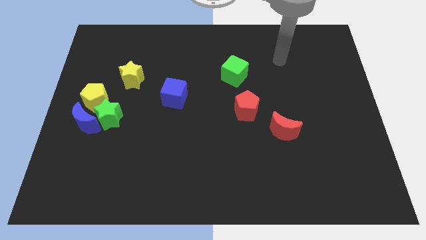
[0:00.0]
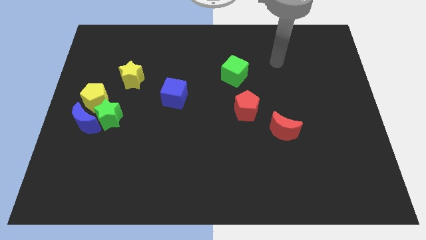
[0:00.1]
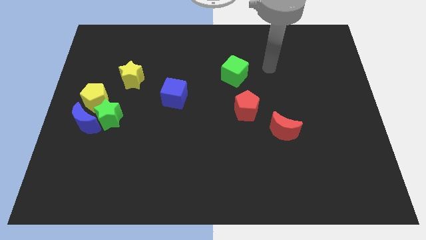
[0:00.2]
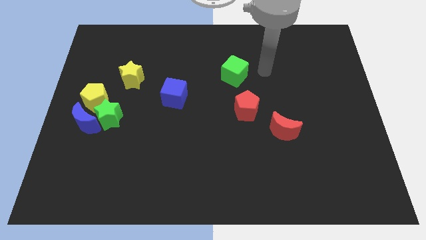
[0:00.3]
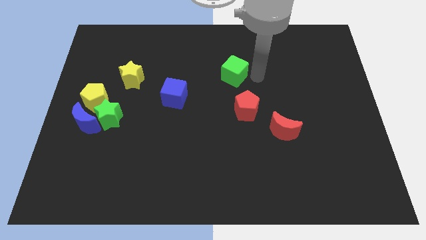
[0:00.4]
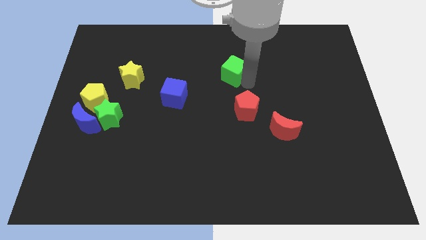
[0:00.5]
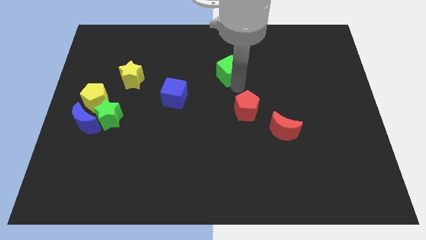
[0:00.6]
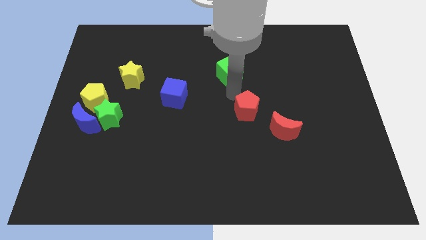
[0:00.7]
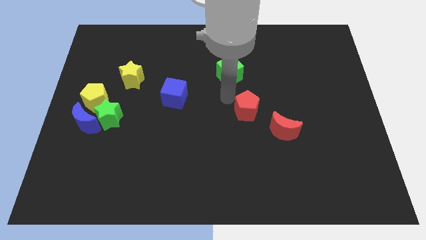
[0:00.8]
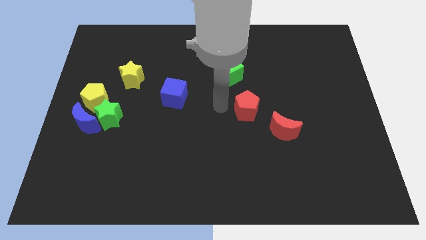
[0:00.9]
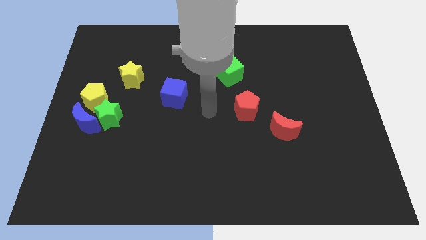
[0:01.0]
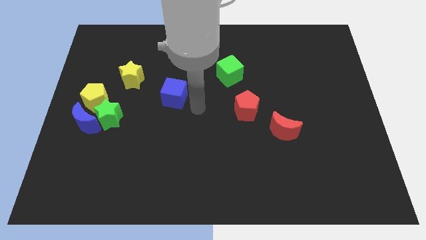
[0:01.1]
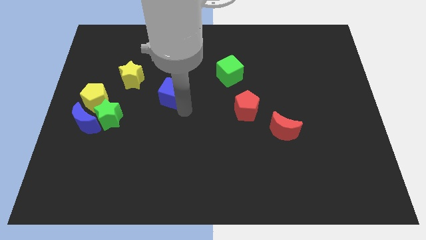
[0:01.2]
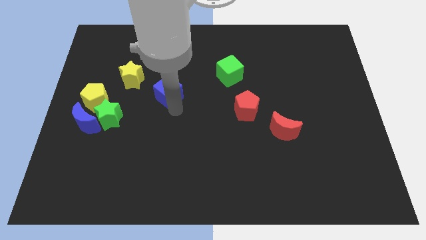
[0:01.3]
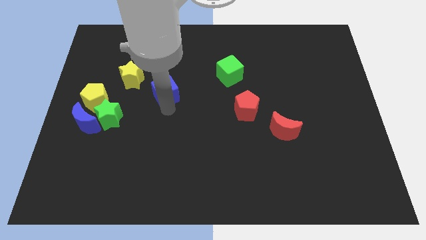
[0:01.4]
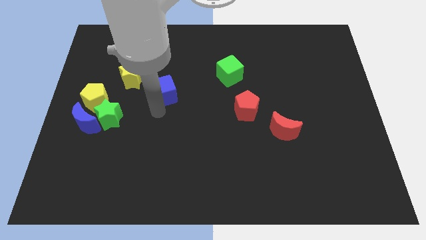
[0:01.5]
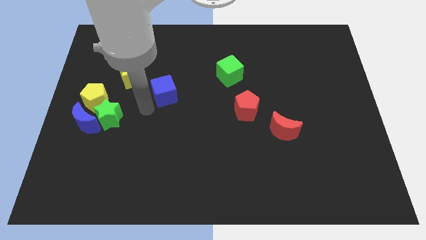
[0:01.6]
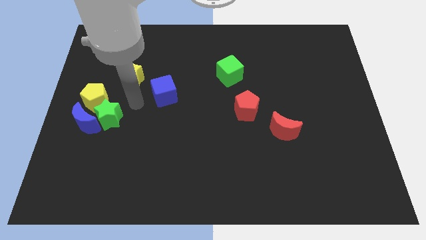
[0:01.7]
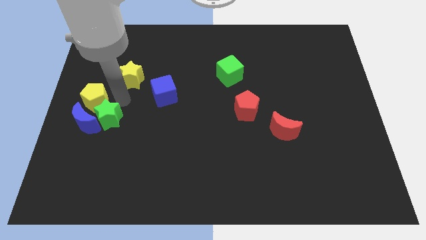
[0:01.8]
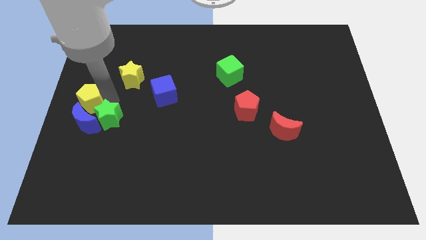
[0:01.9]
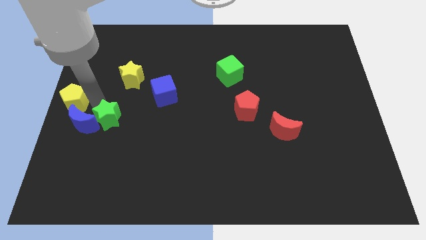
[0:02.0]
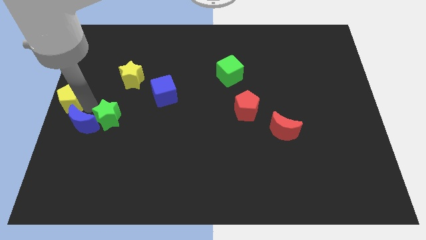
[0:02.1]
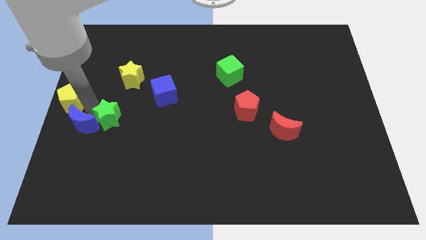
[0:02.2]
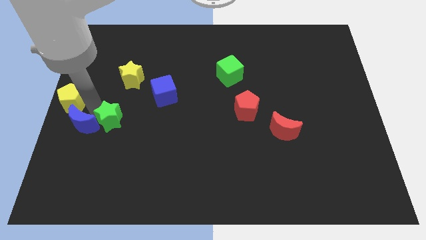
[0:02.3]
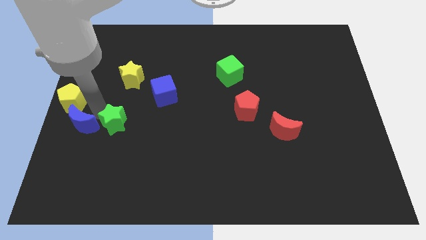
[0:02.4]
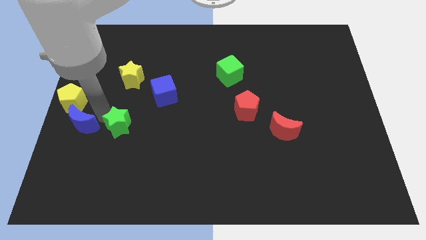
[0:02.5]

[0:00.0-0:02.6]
pull the green star apart from the blue moon and yellow pentagon

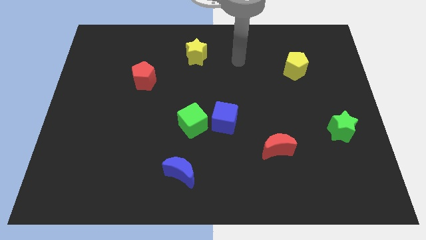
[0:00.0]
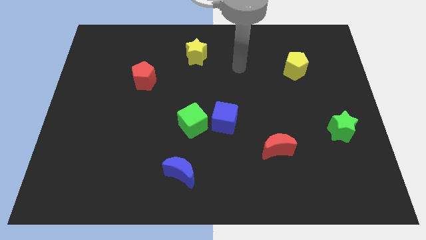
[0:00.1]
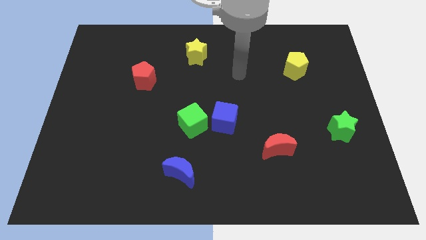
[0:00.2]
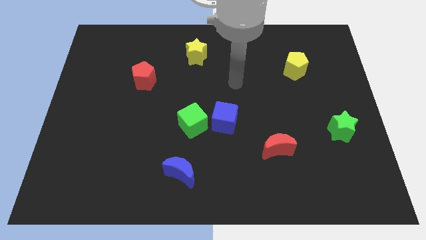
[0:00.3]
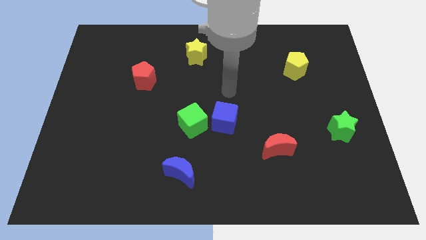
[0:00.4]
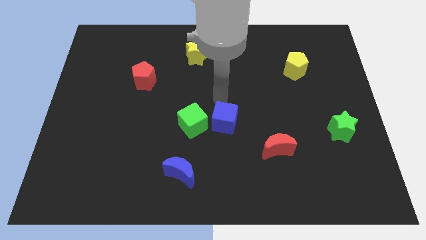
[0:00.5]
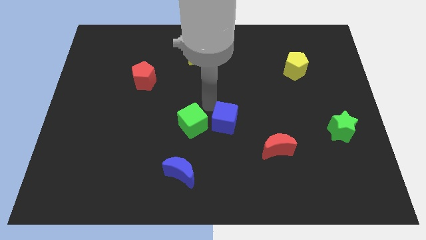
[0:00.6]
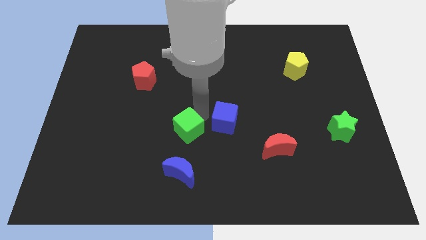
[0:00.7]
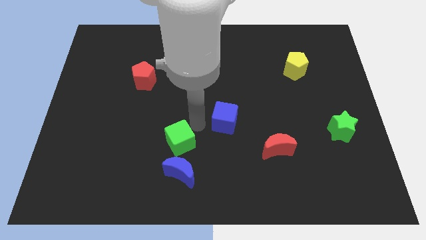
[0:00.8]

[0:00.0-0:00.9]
pull the blue cube apart from the green cube

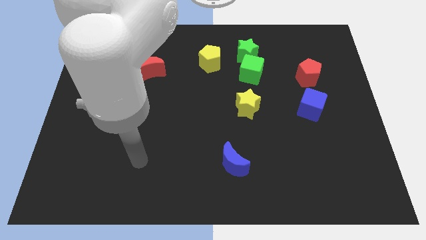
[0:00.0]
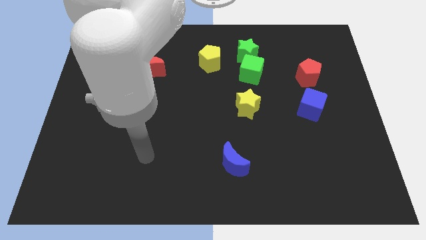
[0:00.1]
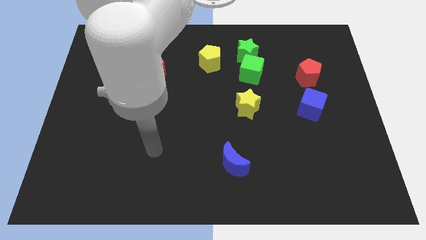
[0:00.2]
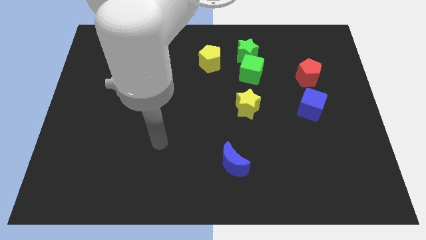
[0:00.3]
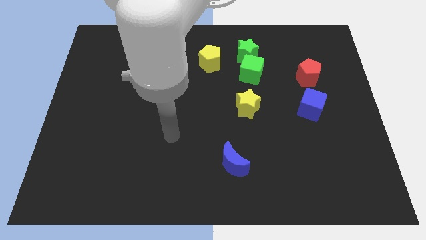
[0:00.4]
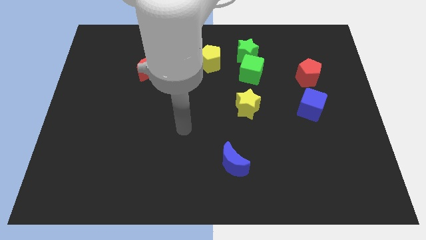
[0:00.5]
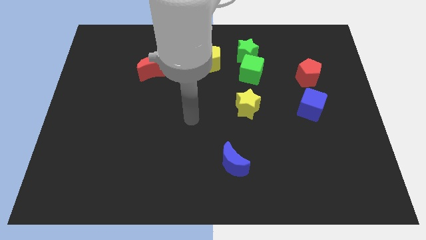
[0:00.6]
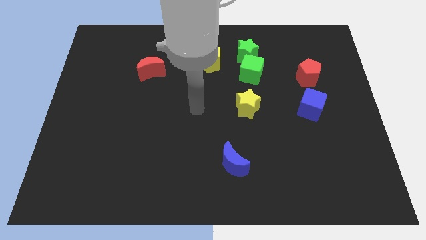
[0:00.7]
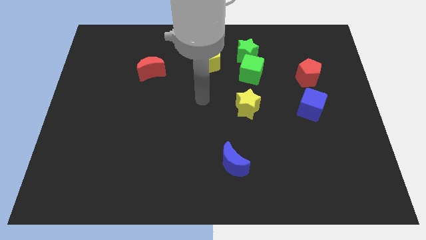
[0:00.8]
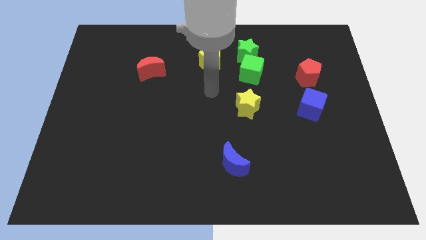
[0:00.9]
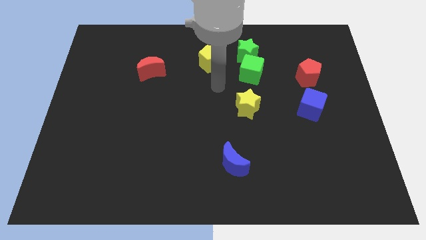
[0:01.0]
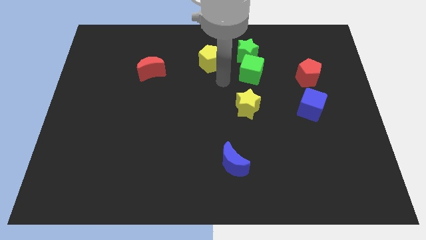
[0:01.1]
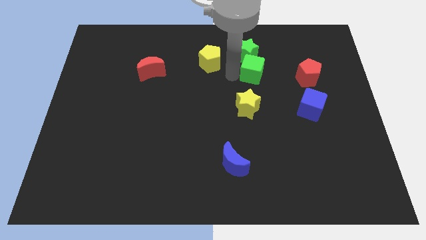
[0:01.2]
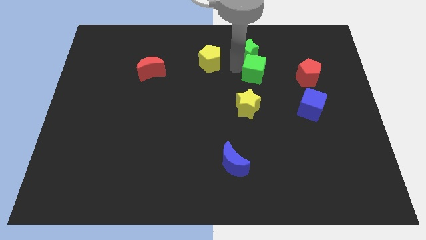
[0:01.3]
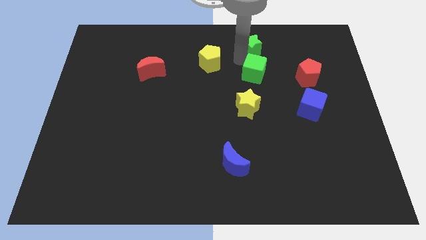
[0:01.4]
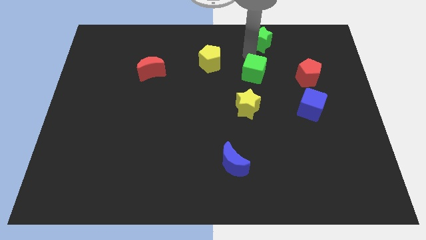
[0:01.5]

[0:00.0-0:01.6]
separate the green cube from the green star

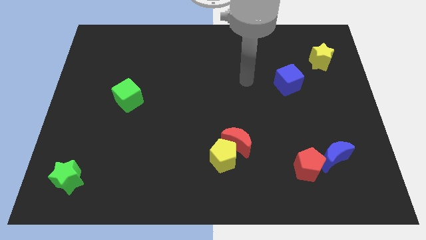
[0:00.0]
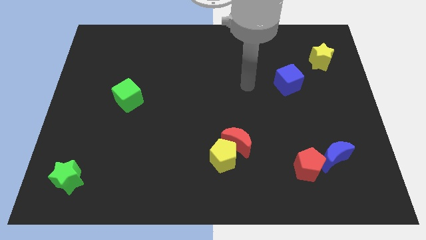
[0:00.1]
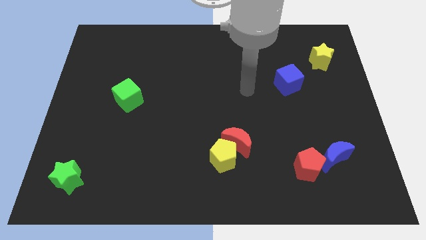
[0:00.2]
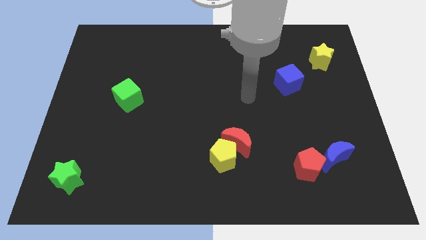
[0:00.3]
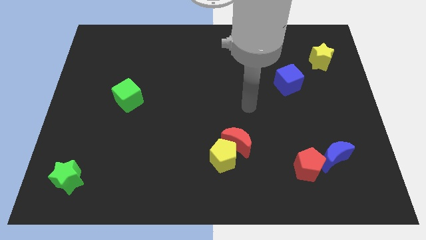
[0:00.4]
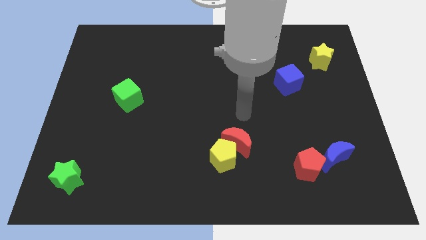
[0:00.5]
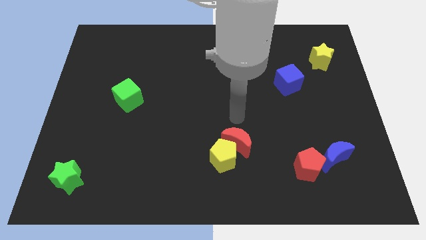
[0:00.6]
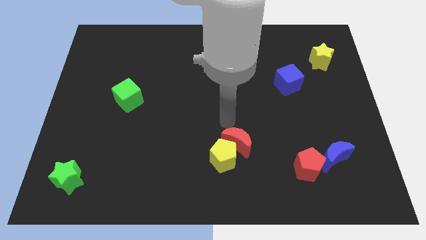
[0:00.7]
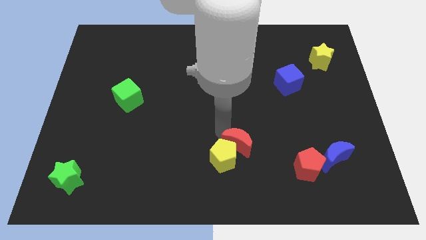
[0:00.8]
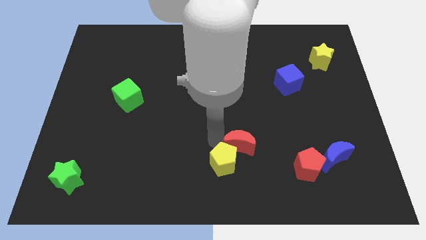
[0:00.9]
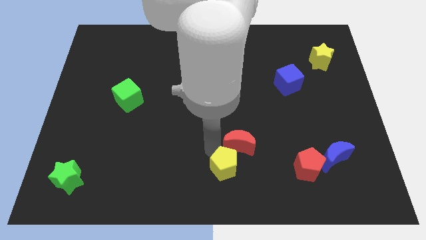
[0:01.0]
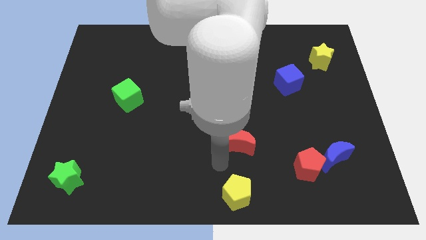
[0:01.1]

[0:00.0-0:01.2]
pull the red moon apart from the yellow pentagon

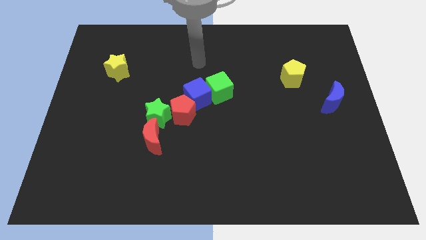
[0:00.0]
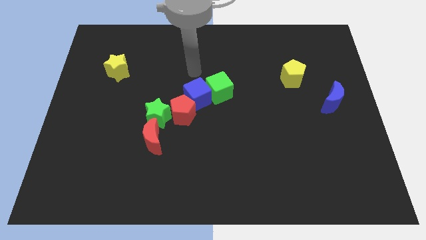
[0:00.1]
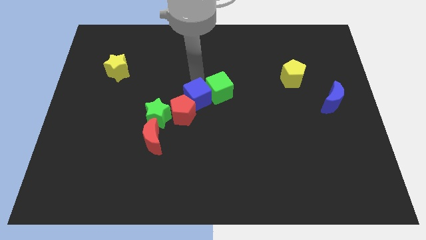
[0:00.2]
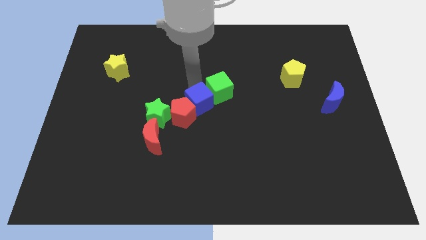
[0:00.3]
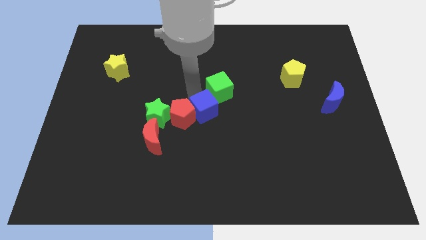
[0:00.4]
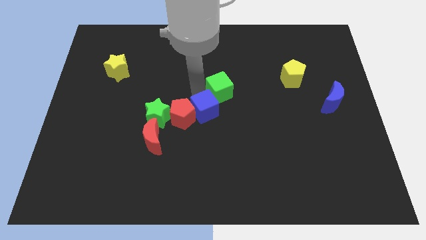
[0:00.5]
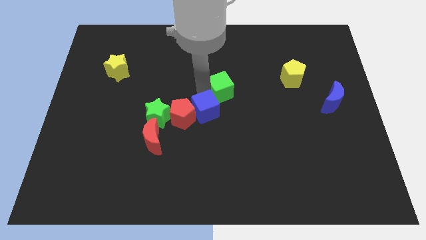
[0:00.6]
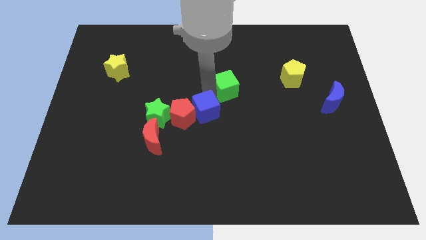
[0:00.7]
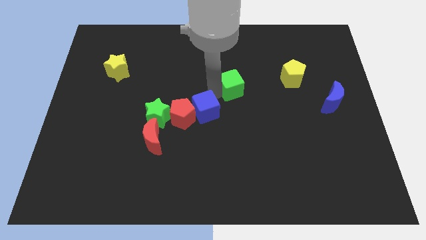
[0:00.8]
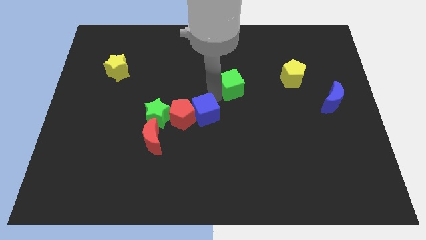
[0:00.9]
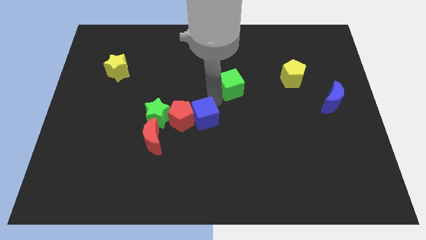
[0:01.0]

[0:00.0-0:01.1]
separate the green cube from the blue cube

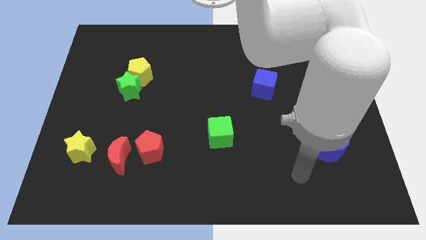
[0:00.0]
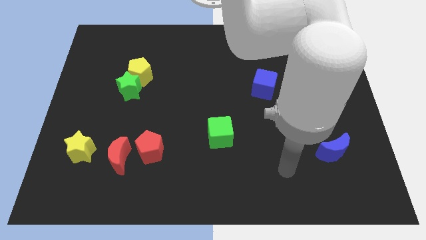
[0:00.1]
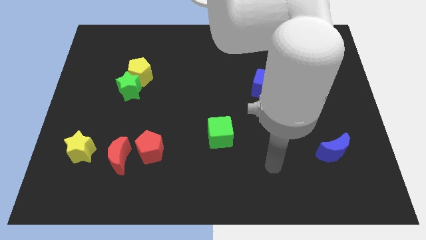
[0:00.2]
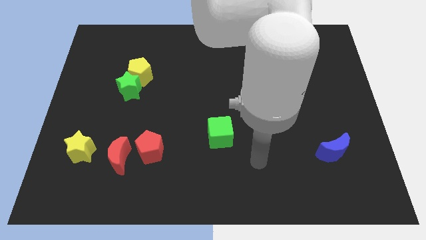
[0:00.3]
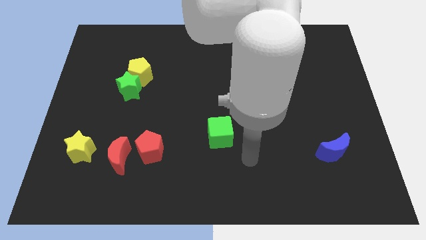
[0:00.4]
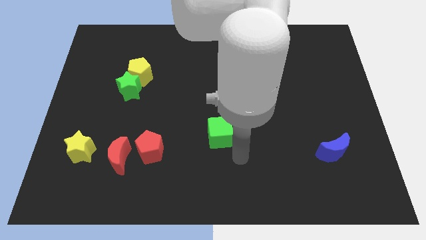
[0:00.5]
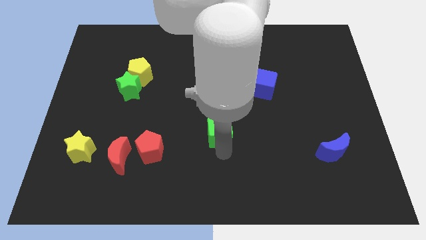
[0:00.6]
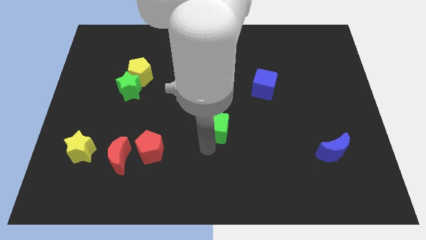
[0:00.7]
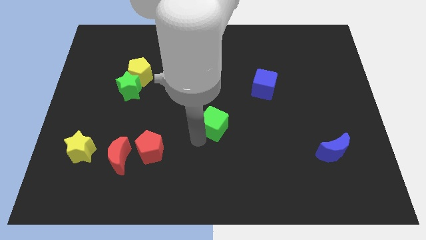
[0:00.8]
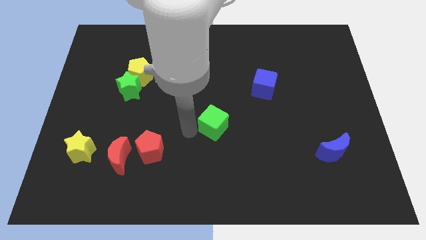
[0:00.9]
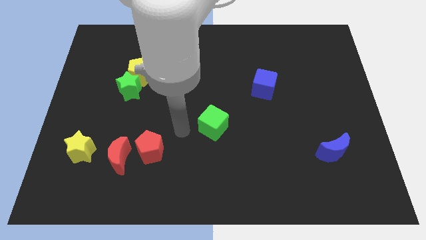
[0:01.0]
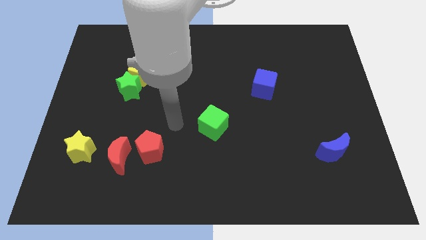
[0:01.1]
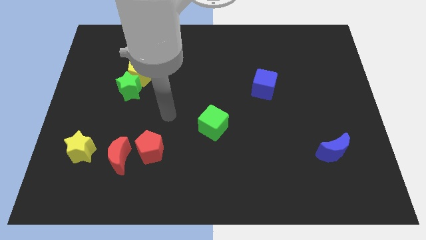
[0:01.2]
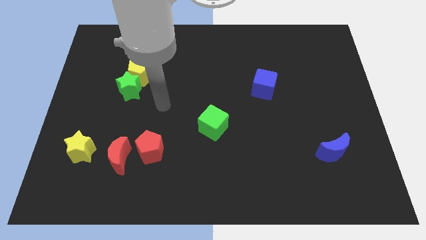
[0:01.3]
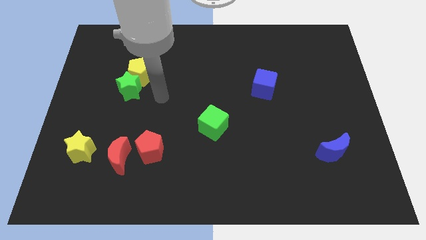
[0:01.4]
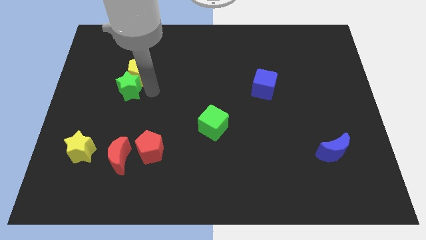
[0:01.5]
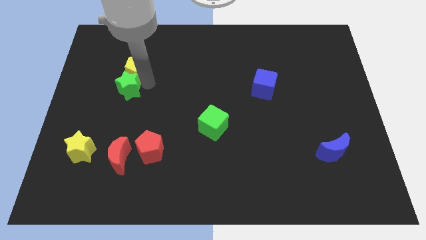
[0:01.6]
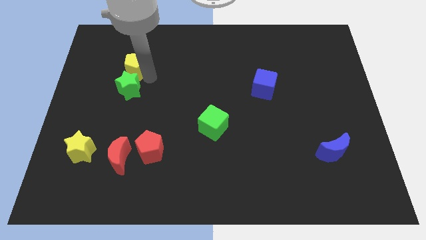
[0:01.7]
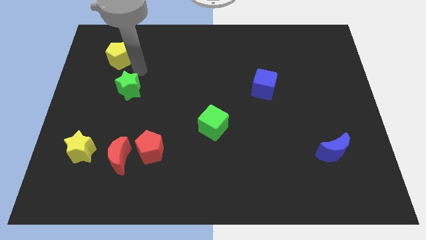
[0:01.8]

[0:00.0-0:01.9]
move the green star away from the yellow pentagon

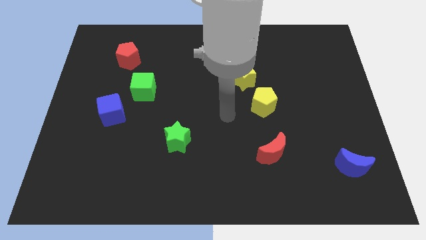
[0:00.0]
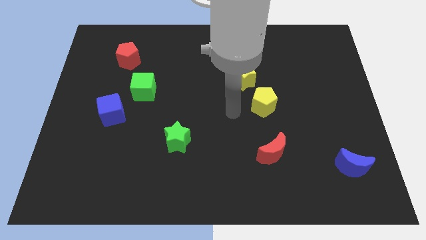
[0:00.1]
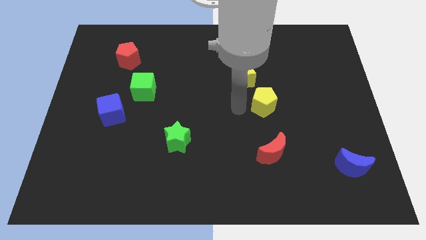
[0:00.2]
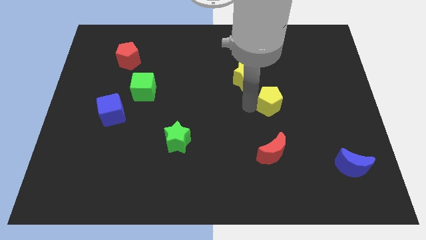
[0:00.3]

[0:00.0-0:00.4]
move the yellow star away from the yellow pentagon
